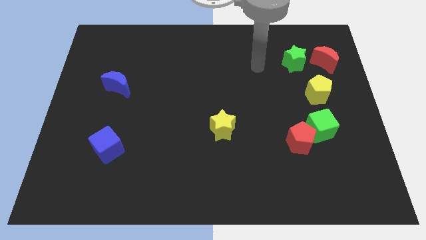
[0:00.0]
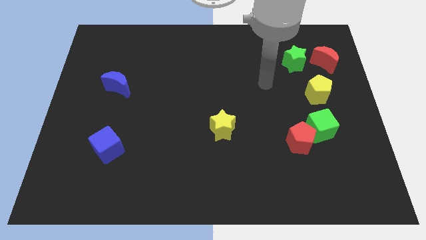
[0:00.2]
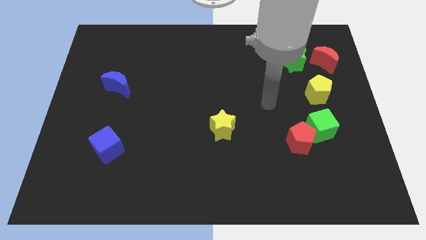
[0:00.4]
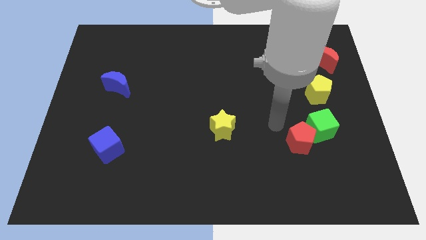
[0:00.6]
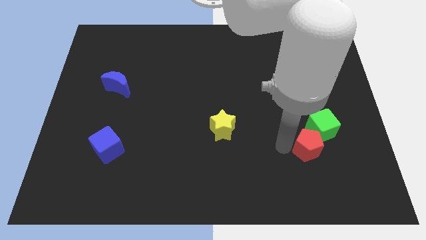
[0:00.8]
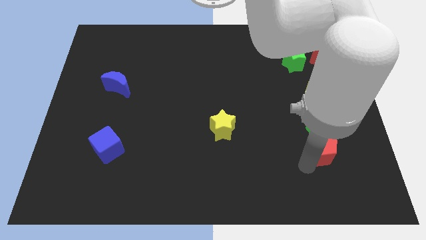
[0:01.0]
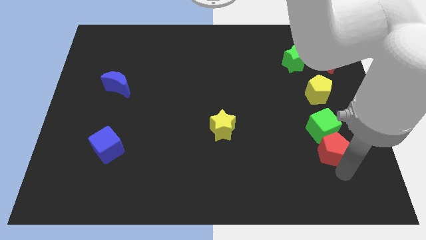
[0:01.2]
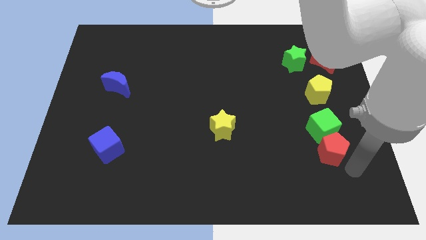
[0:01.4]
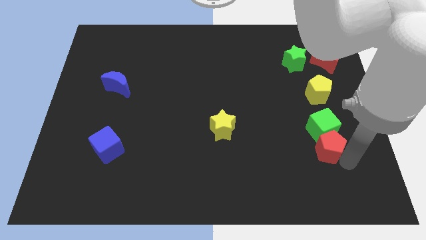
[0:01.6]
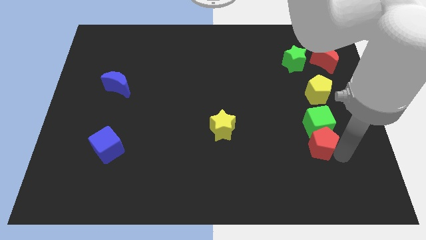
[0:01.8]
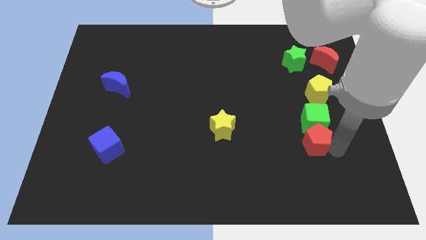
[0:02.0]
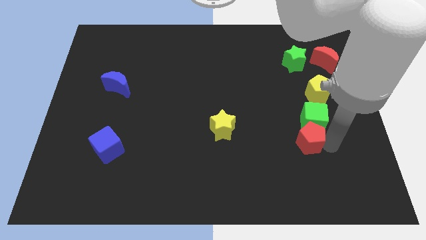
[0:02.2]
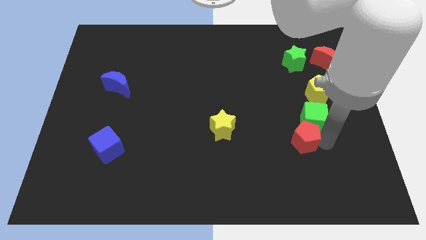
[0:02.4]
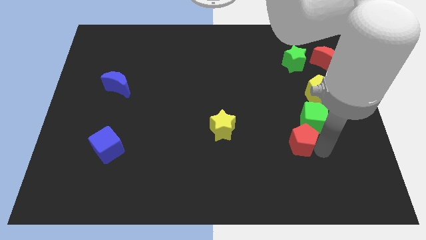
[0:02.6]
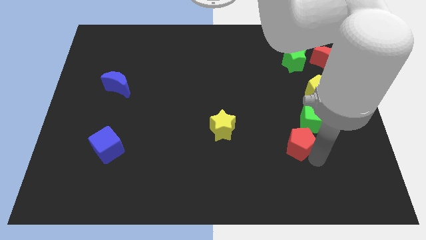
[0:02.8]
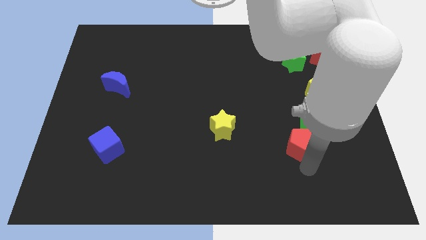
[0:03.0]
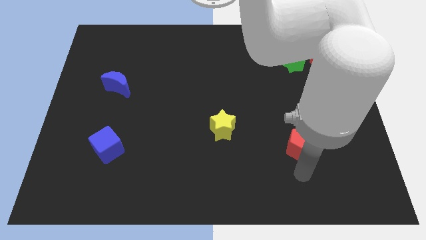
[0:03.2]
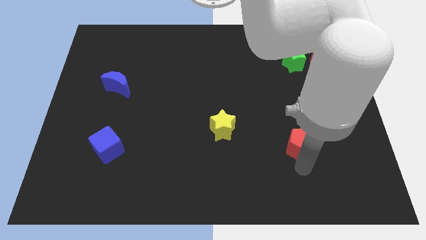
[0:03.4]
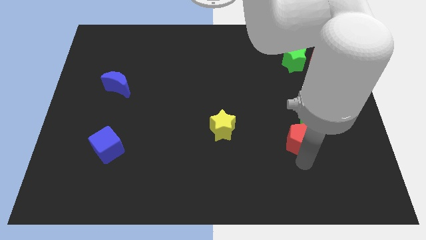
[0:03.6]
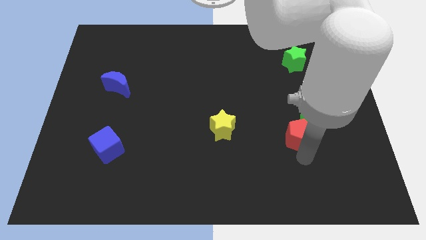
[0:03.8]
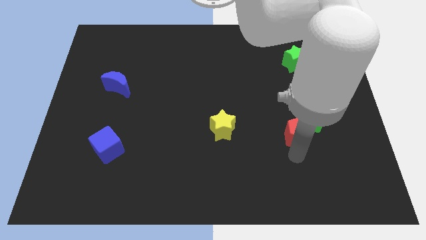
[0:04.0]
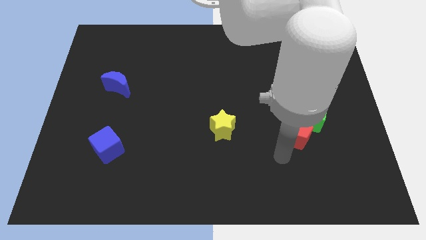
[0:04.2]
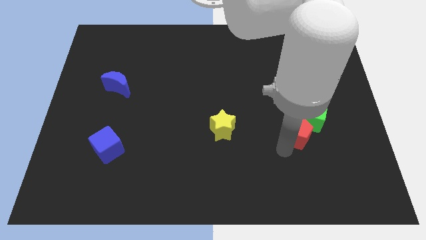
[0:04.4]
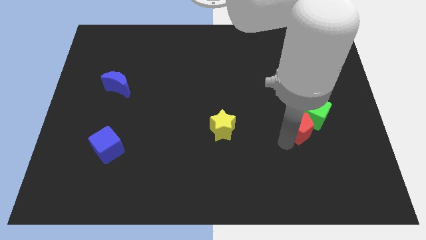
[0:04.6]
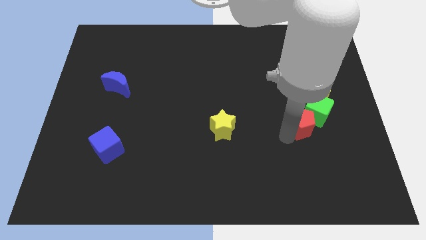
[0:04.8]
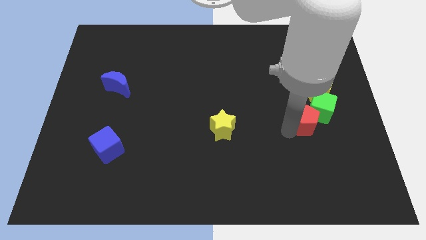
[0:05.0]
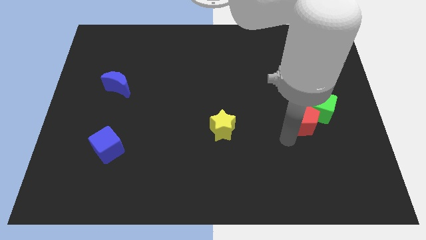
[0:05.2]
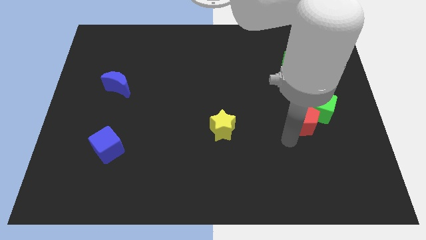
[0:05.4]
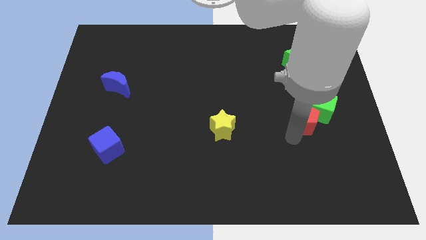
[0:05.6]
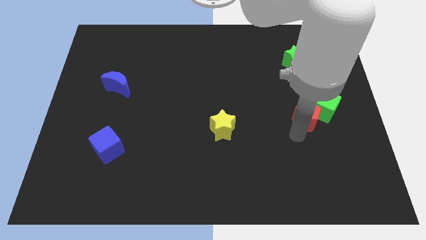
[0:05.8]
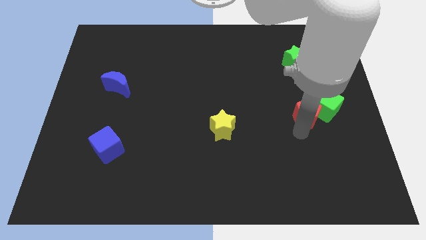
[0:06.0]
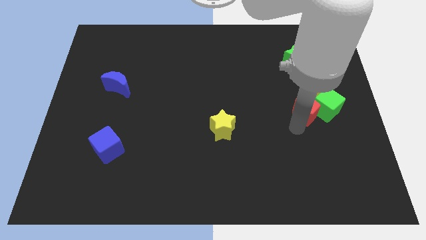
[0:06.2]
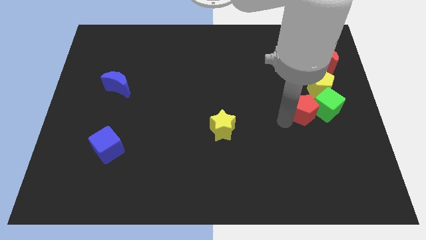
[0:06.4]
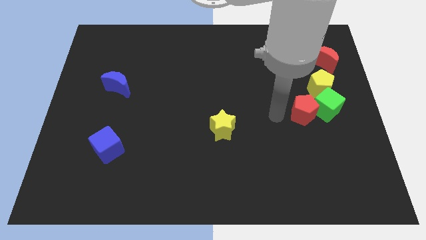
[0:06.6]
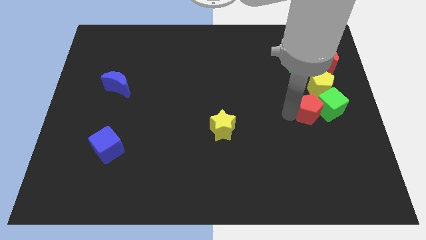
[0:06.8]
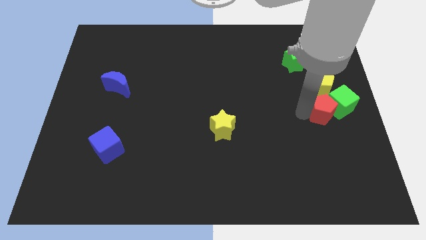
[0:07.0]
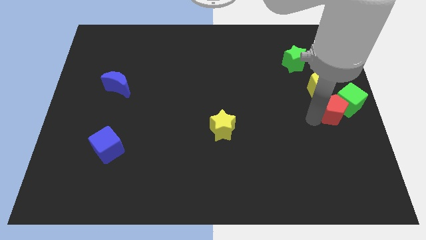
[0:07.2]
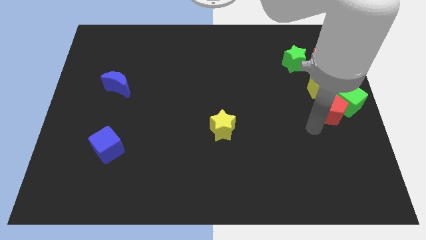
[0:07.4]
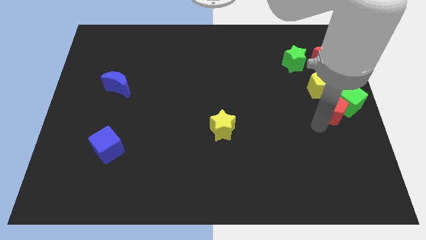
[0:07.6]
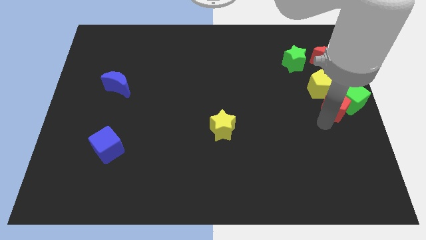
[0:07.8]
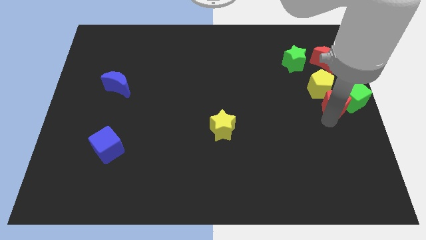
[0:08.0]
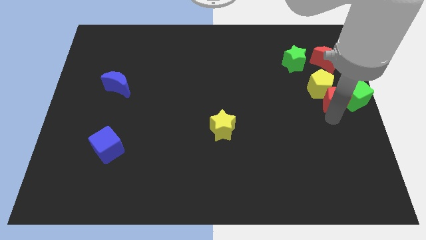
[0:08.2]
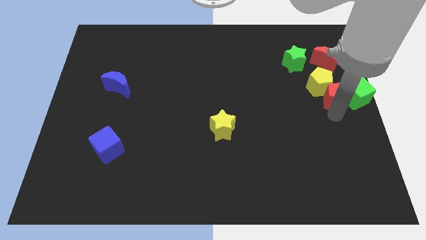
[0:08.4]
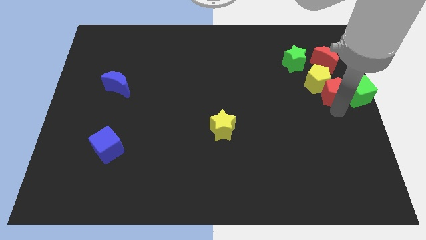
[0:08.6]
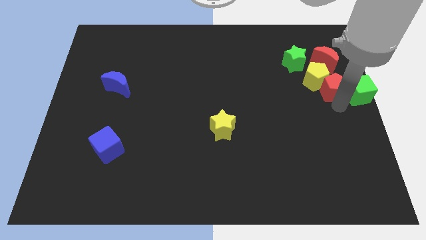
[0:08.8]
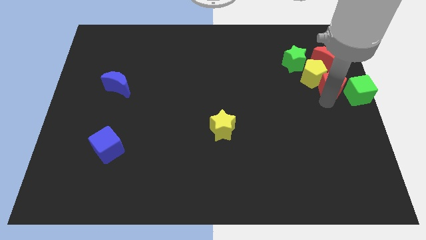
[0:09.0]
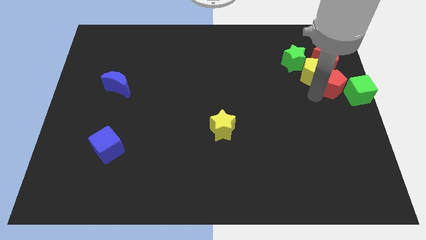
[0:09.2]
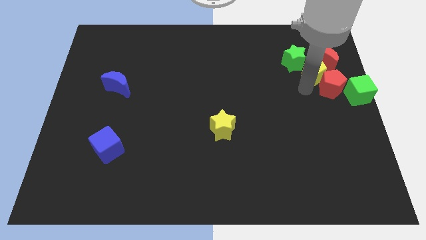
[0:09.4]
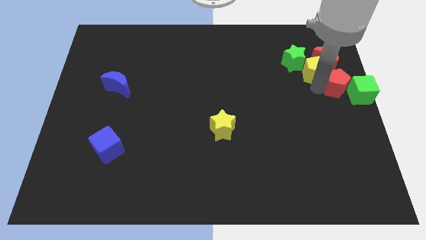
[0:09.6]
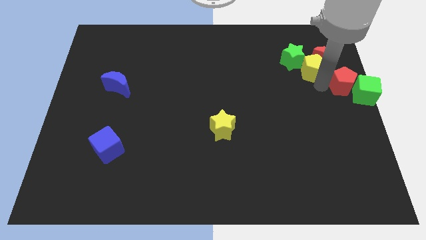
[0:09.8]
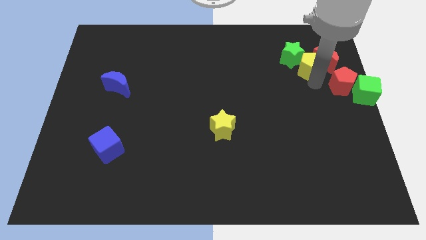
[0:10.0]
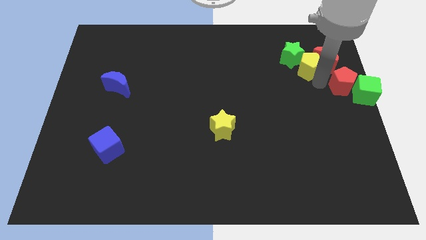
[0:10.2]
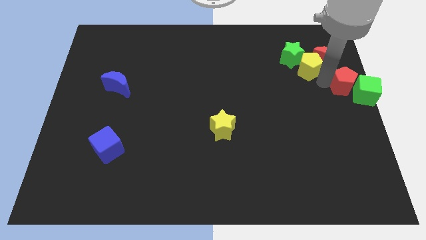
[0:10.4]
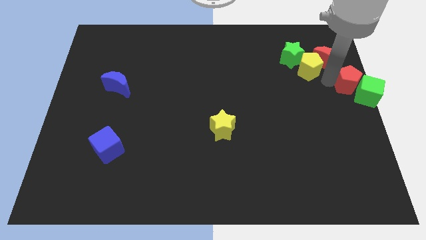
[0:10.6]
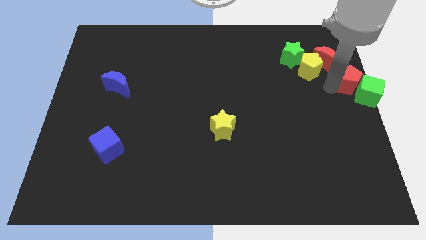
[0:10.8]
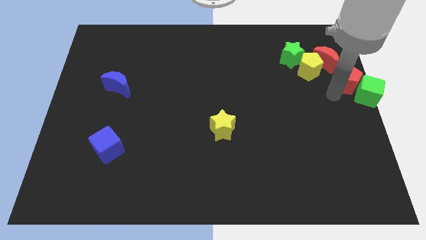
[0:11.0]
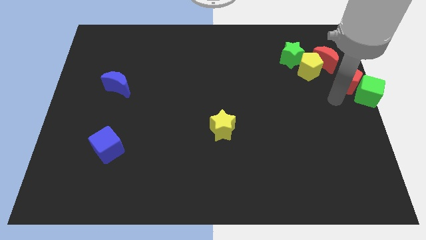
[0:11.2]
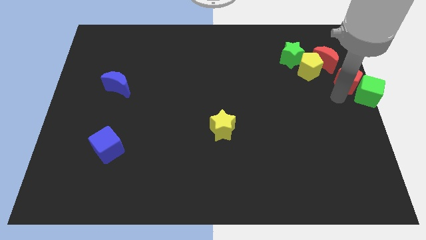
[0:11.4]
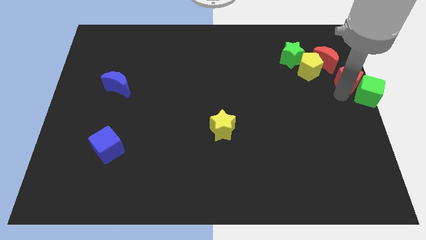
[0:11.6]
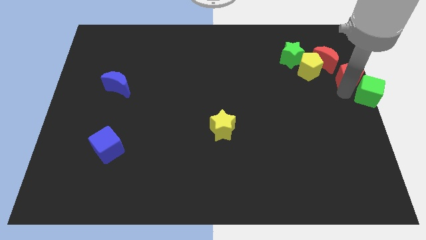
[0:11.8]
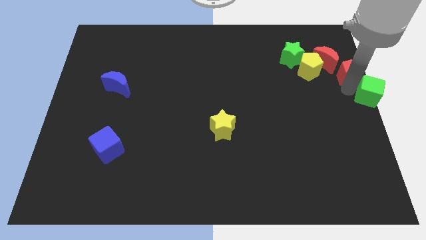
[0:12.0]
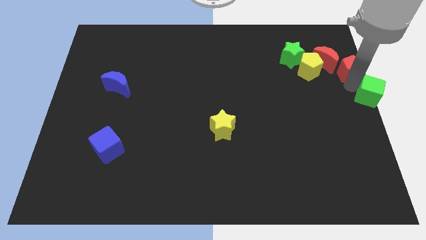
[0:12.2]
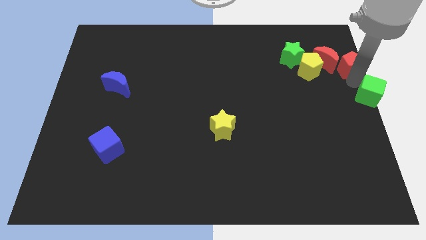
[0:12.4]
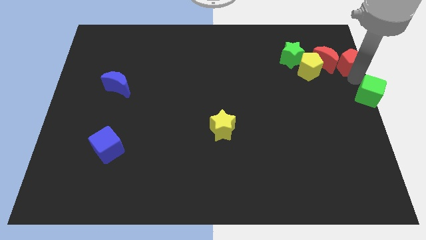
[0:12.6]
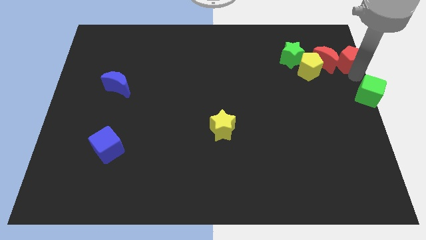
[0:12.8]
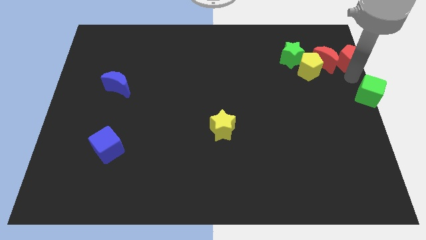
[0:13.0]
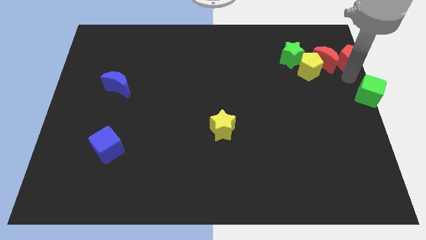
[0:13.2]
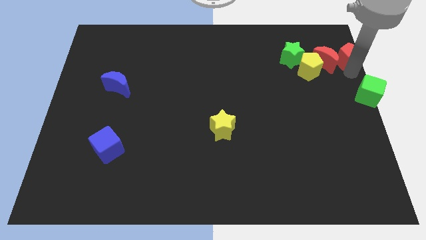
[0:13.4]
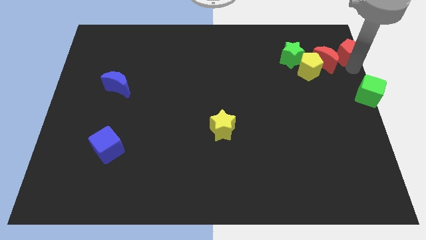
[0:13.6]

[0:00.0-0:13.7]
move the red pentagon to the top right of the board

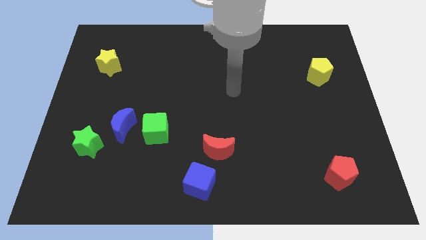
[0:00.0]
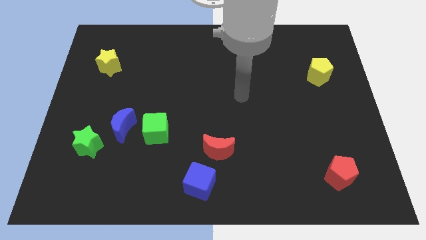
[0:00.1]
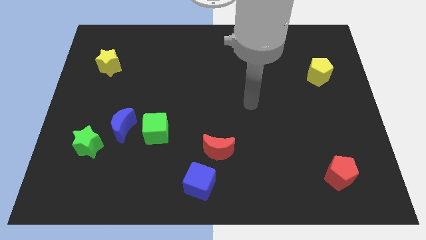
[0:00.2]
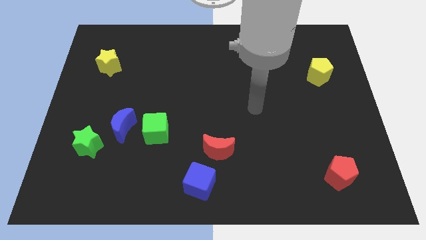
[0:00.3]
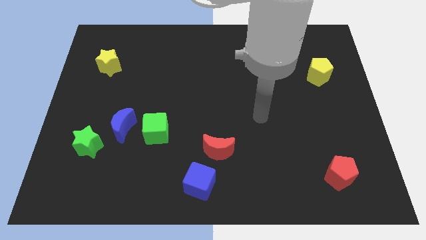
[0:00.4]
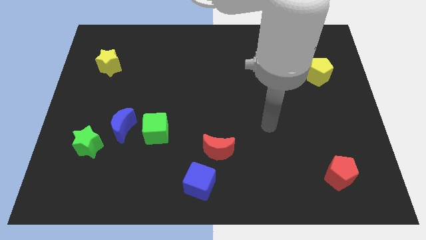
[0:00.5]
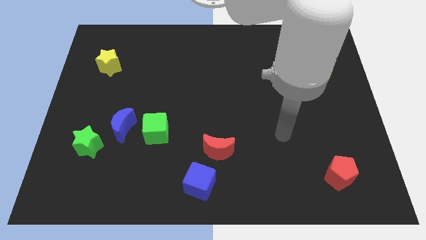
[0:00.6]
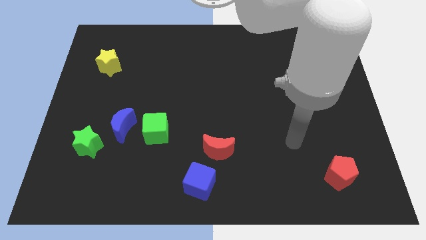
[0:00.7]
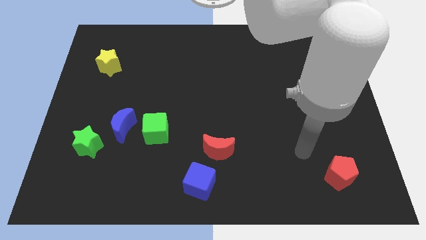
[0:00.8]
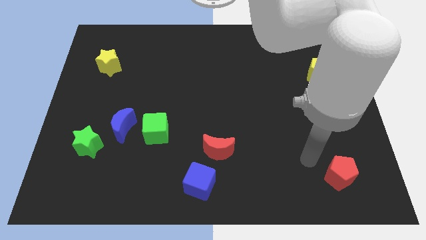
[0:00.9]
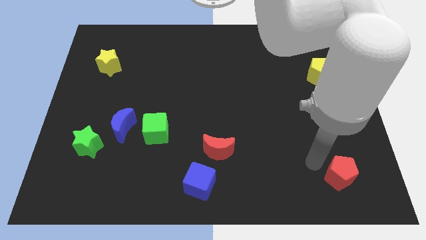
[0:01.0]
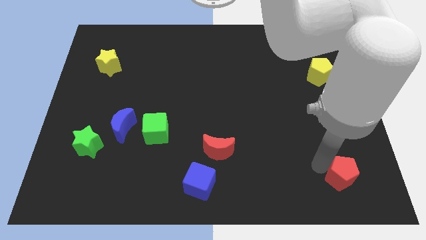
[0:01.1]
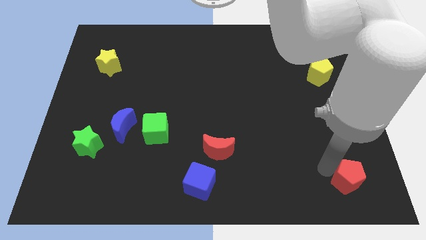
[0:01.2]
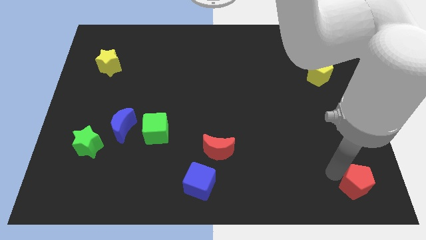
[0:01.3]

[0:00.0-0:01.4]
put the red pentagon to the bottom right
